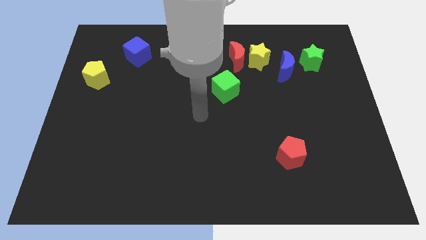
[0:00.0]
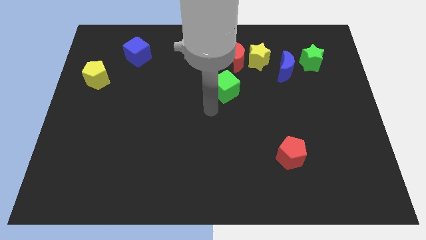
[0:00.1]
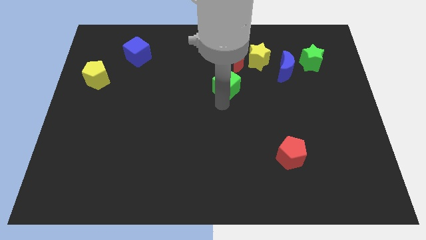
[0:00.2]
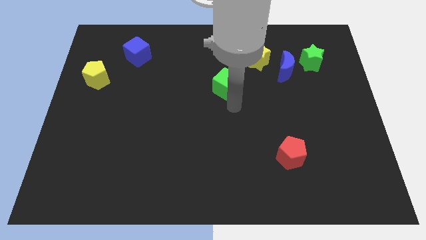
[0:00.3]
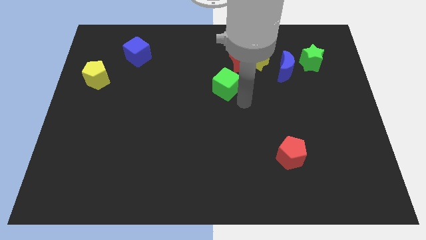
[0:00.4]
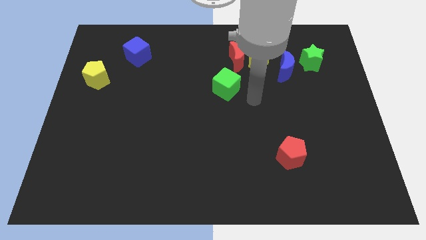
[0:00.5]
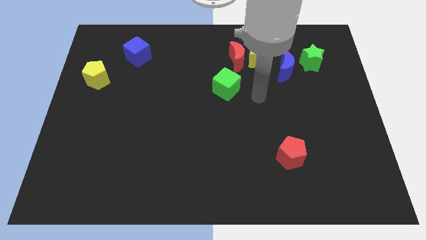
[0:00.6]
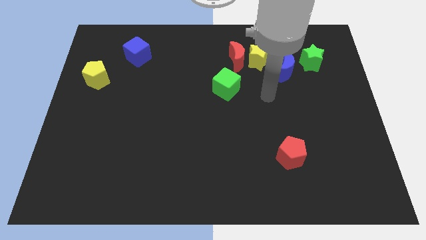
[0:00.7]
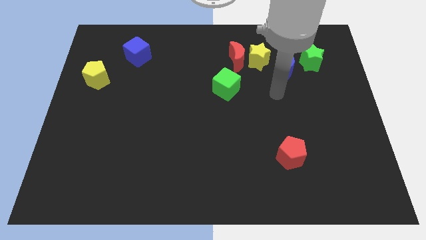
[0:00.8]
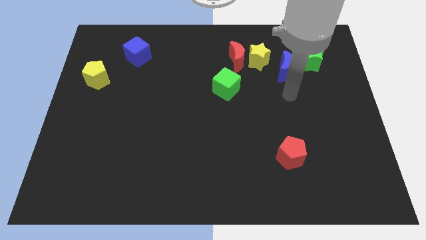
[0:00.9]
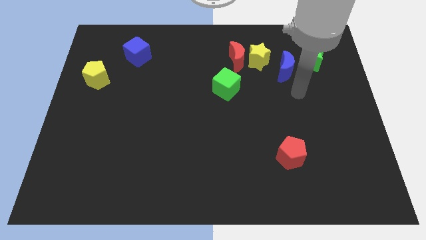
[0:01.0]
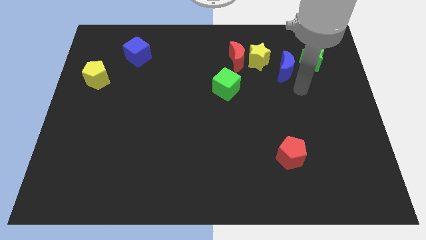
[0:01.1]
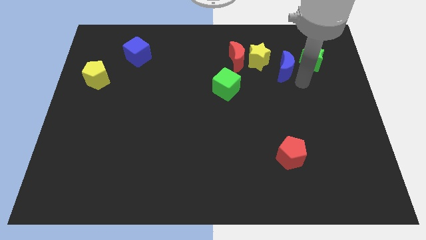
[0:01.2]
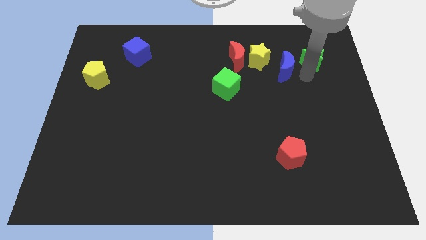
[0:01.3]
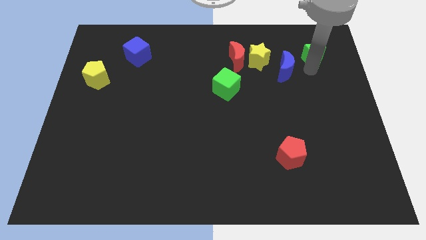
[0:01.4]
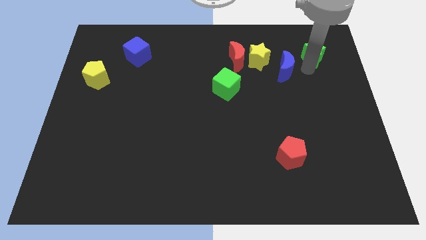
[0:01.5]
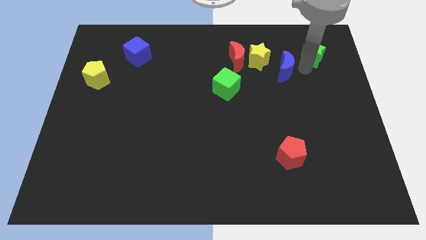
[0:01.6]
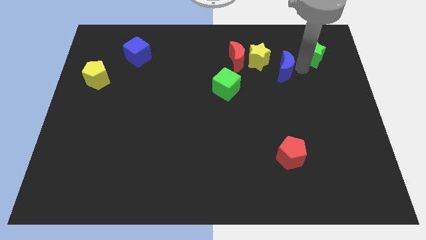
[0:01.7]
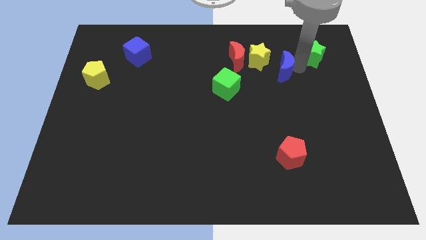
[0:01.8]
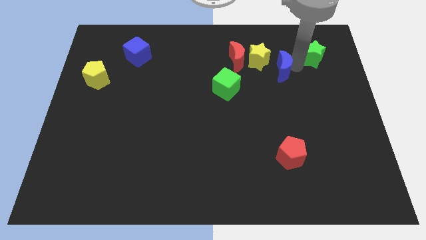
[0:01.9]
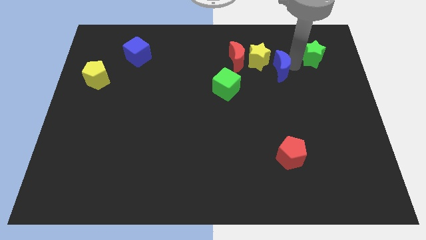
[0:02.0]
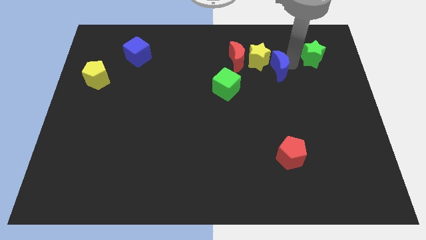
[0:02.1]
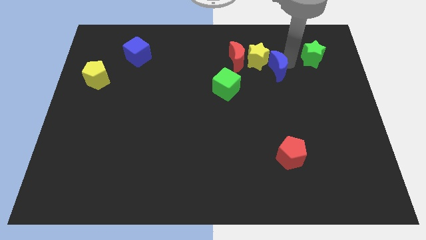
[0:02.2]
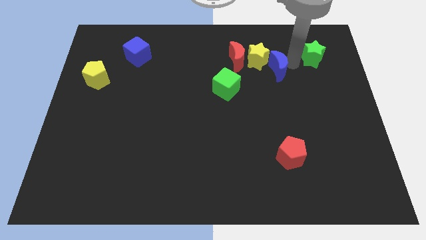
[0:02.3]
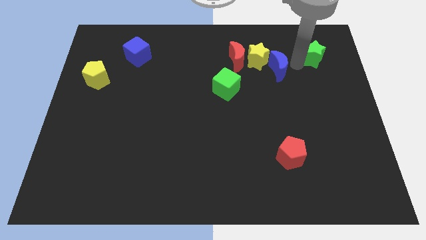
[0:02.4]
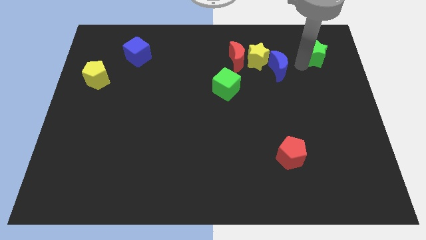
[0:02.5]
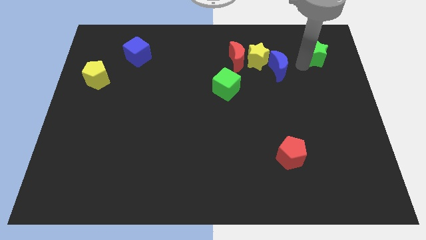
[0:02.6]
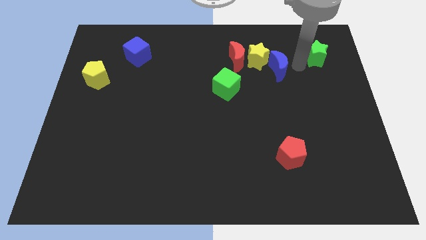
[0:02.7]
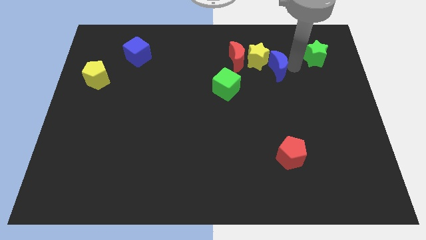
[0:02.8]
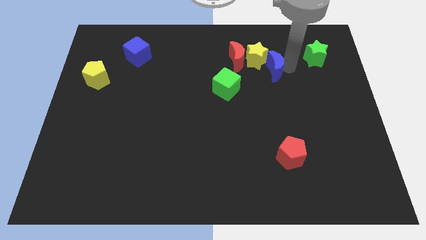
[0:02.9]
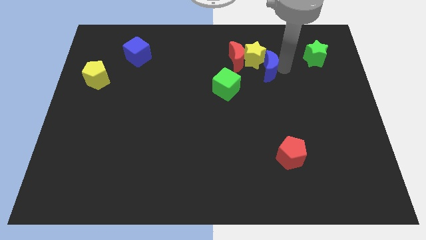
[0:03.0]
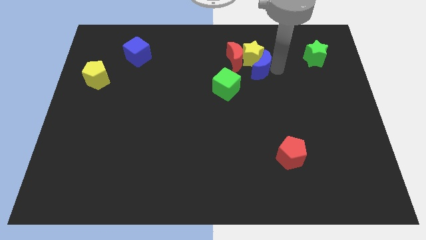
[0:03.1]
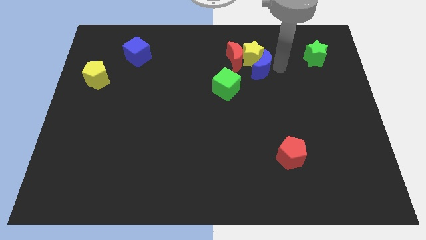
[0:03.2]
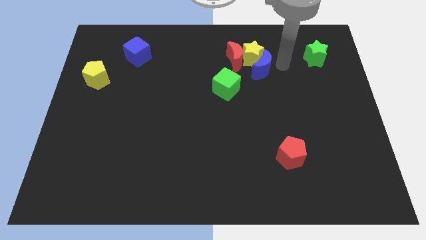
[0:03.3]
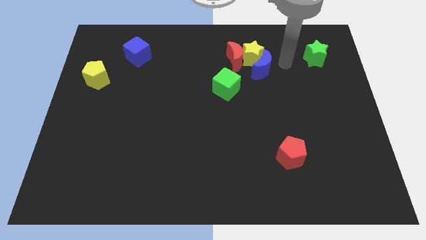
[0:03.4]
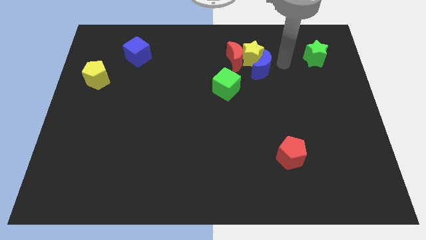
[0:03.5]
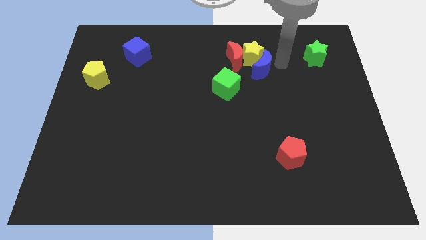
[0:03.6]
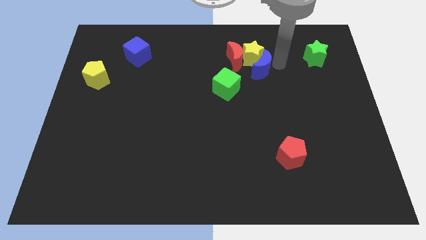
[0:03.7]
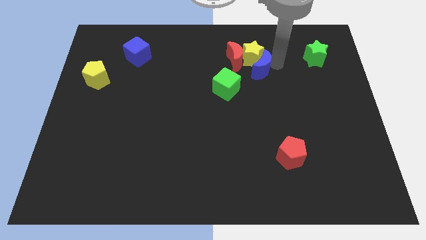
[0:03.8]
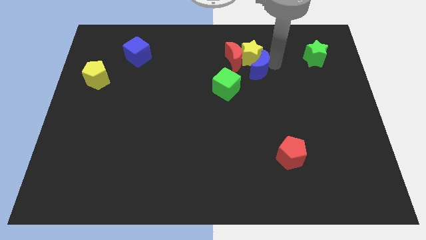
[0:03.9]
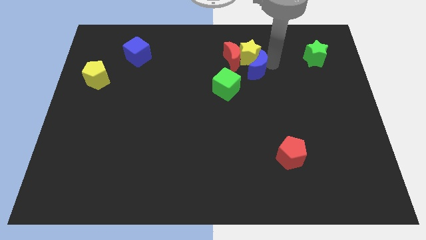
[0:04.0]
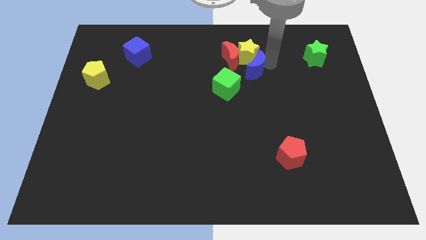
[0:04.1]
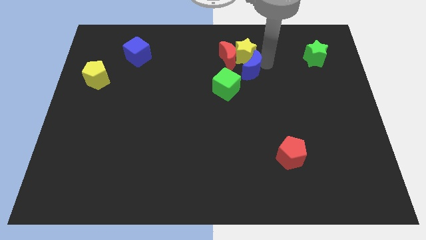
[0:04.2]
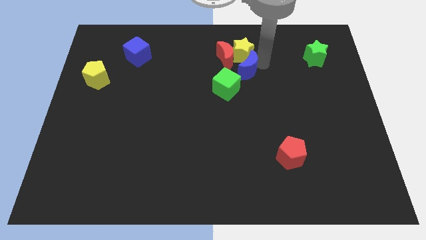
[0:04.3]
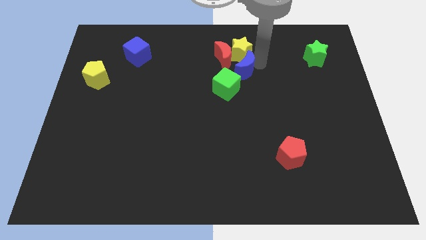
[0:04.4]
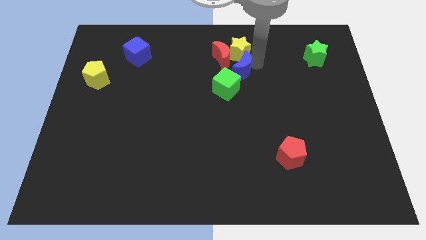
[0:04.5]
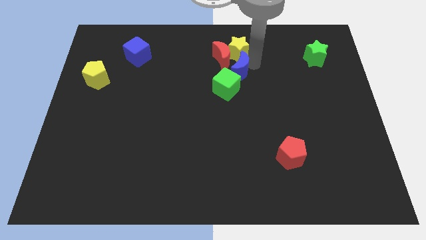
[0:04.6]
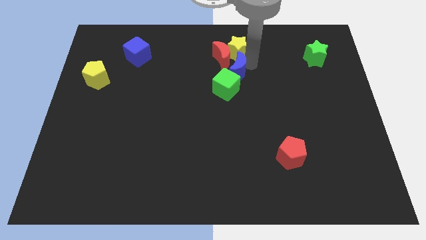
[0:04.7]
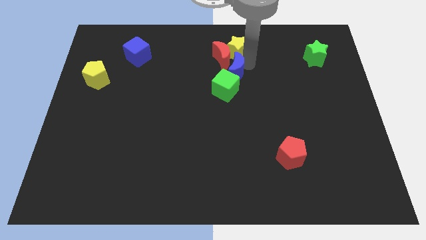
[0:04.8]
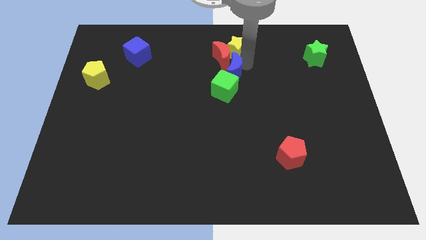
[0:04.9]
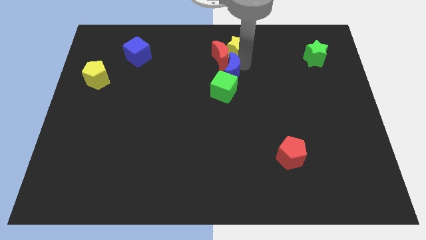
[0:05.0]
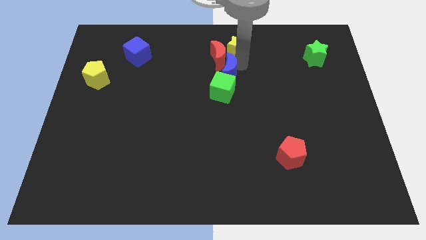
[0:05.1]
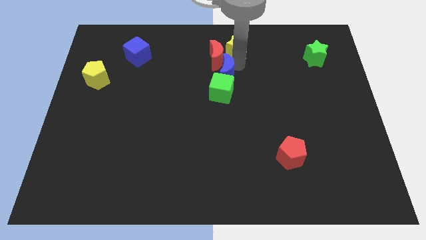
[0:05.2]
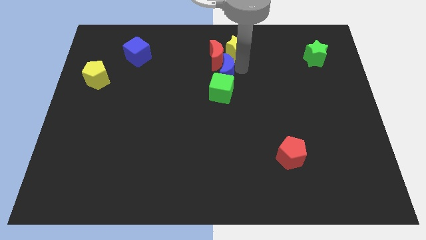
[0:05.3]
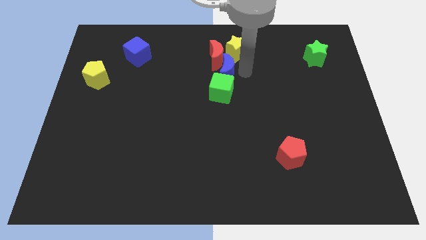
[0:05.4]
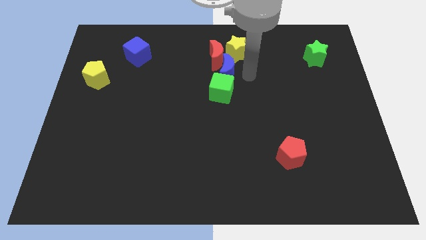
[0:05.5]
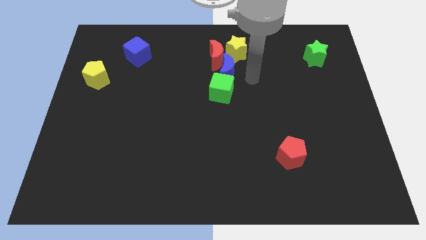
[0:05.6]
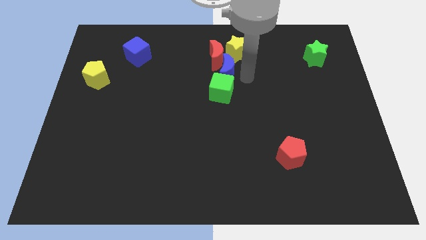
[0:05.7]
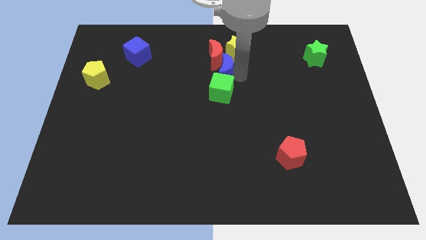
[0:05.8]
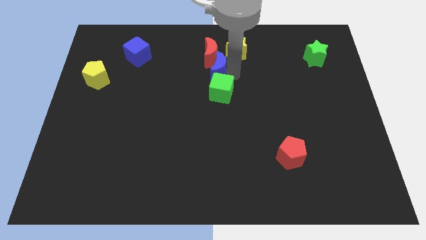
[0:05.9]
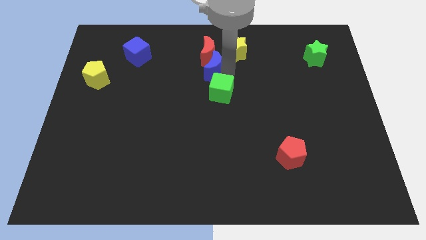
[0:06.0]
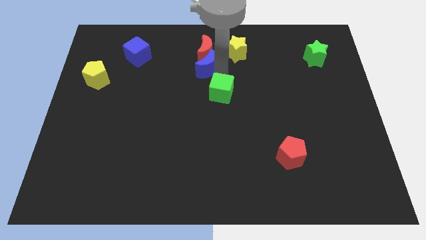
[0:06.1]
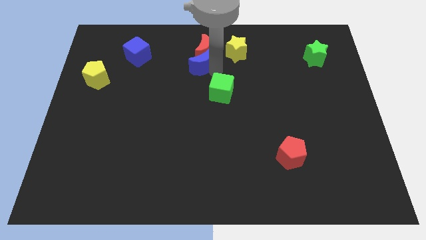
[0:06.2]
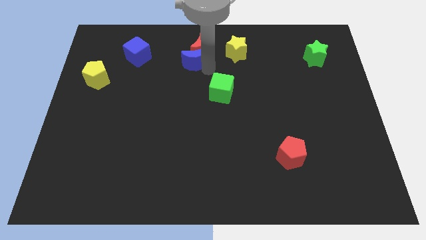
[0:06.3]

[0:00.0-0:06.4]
push the blue moon right of the blue cube
